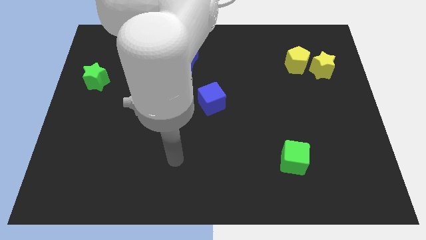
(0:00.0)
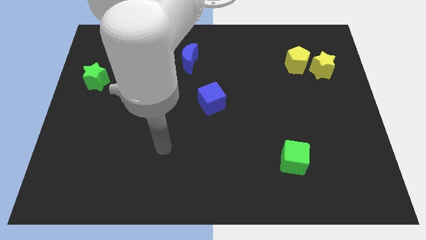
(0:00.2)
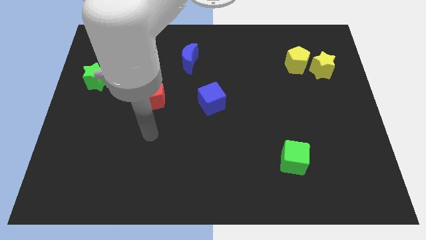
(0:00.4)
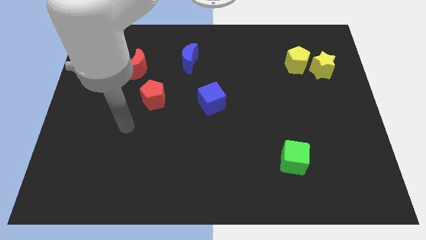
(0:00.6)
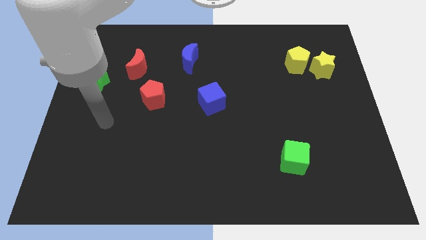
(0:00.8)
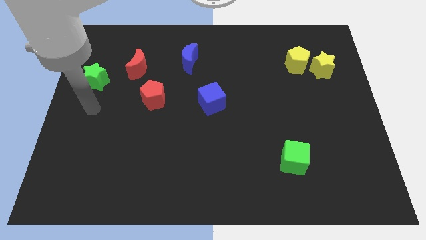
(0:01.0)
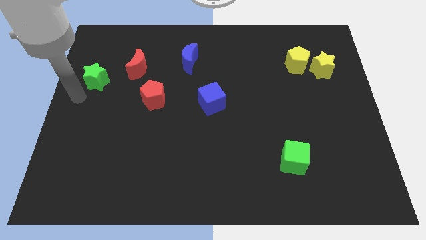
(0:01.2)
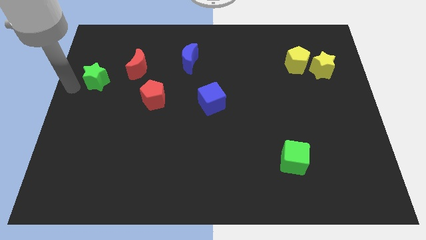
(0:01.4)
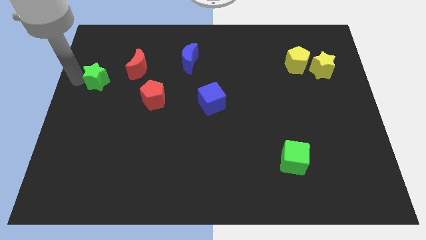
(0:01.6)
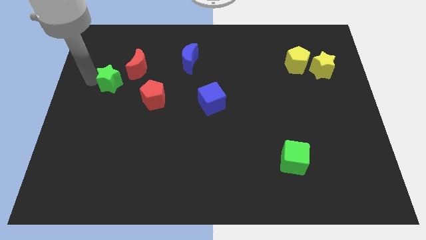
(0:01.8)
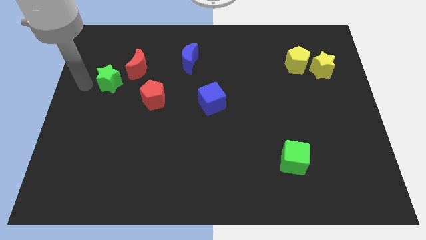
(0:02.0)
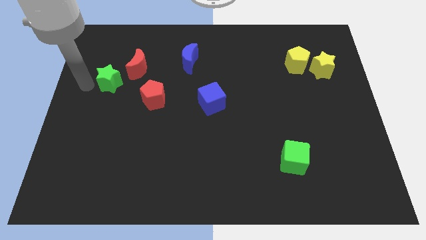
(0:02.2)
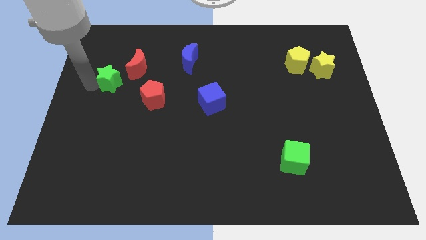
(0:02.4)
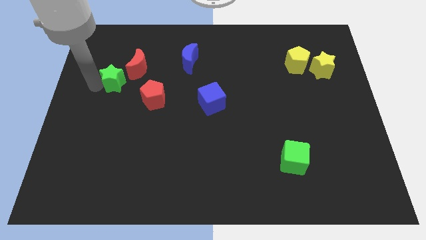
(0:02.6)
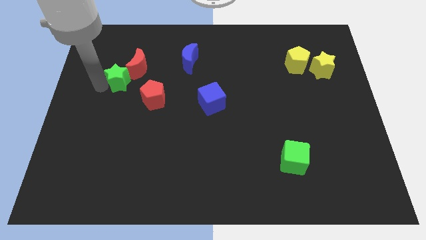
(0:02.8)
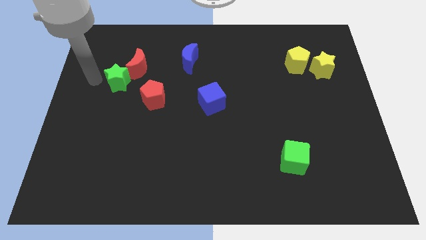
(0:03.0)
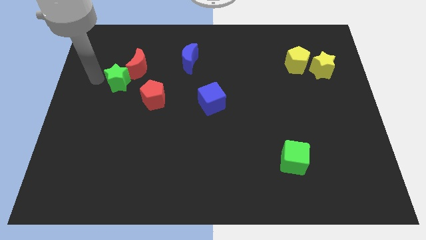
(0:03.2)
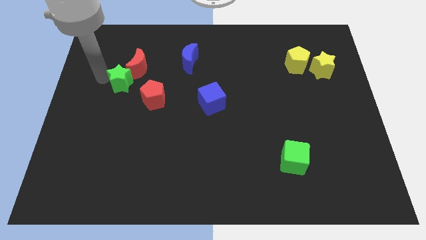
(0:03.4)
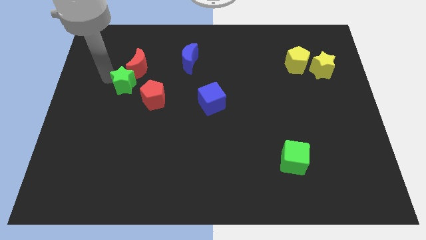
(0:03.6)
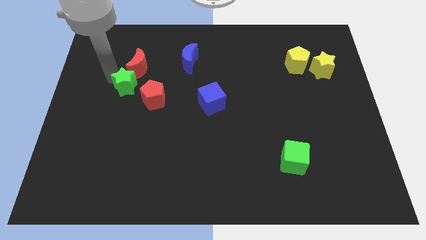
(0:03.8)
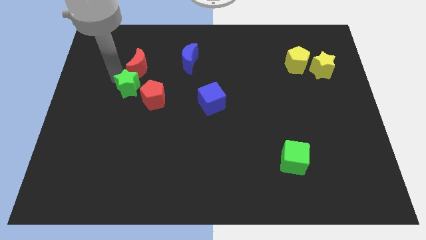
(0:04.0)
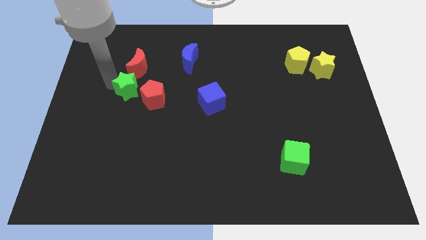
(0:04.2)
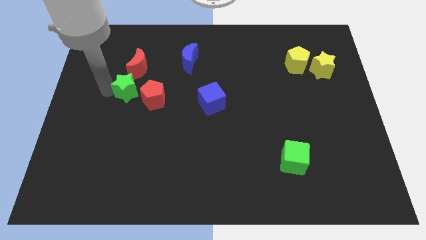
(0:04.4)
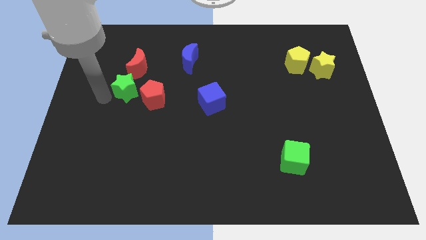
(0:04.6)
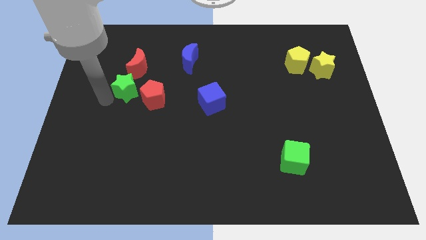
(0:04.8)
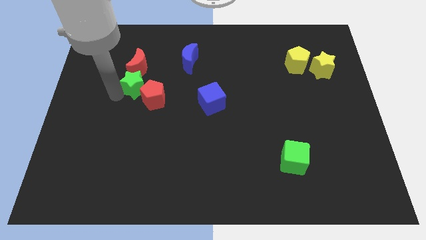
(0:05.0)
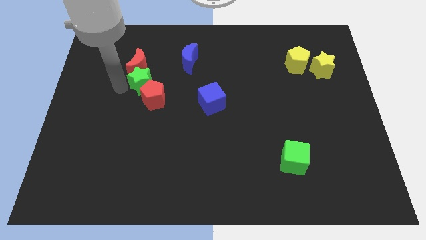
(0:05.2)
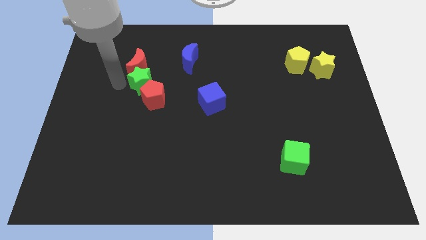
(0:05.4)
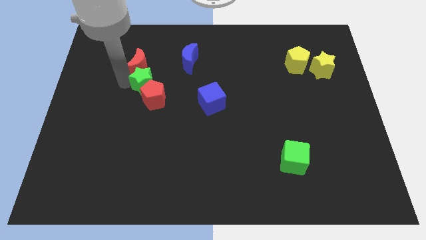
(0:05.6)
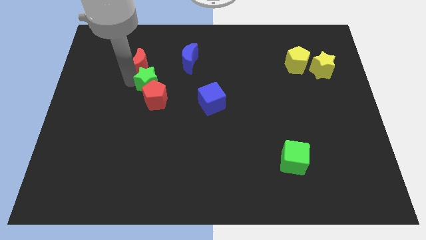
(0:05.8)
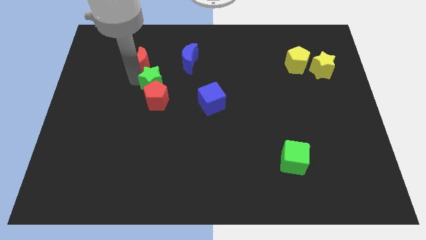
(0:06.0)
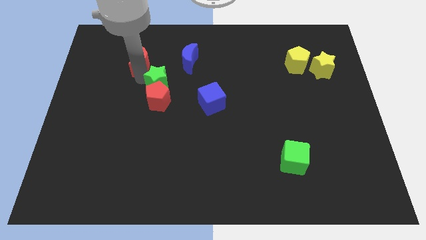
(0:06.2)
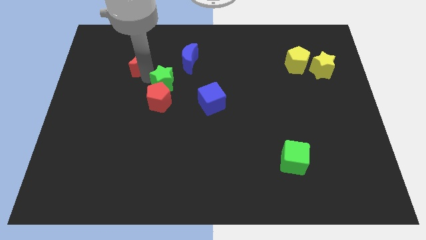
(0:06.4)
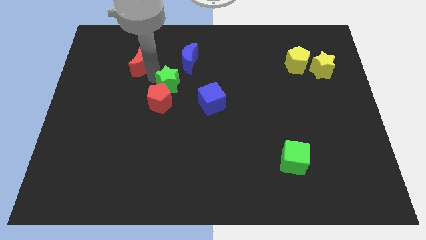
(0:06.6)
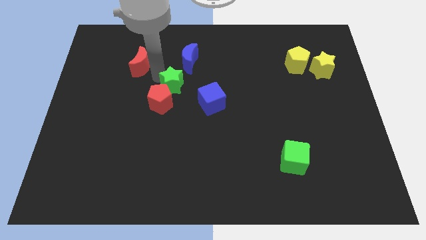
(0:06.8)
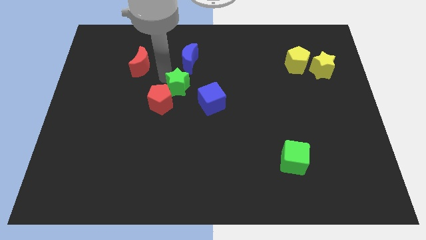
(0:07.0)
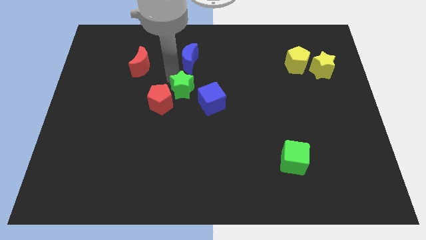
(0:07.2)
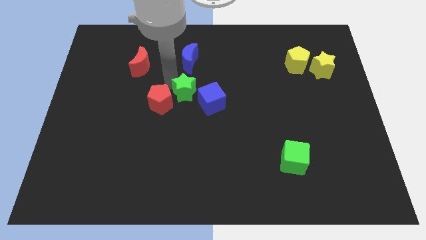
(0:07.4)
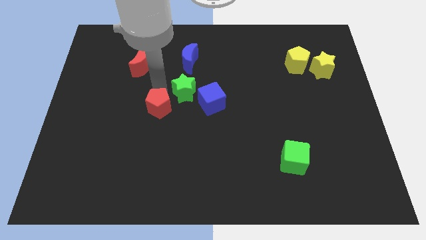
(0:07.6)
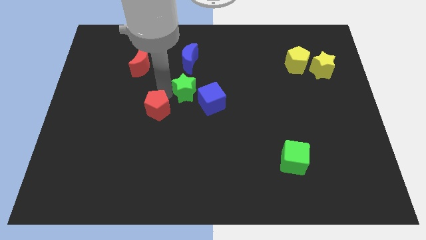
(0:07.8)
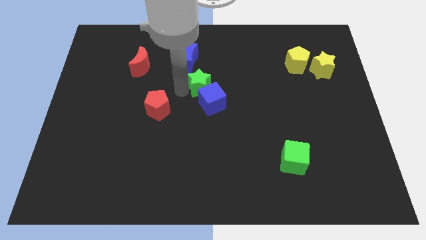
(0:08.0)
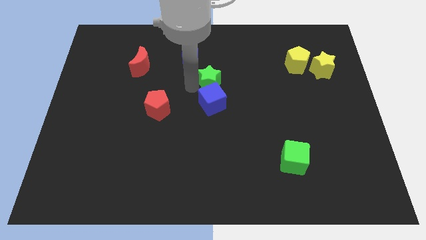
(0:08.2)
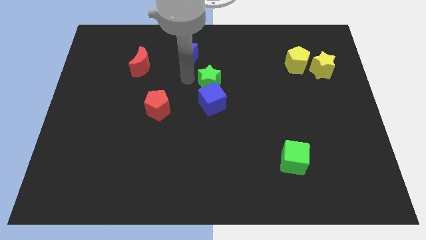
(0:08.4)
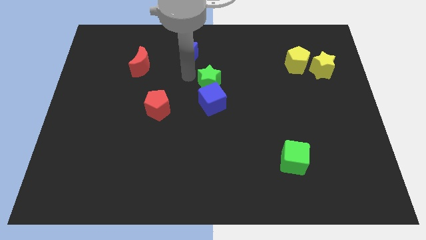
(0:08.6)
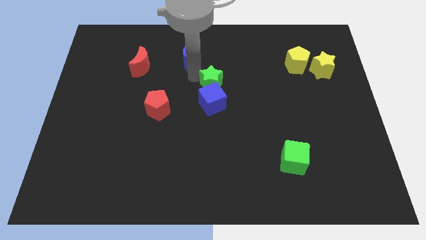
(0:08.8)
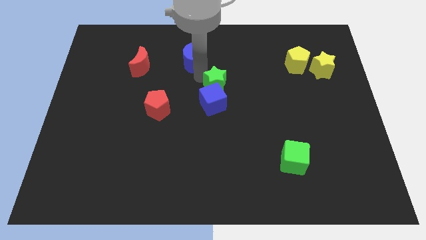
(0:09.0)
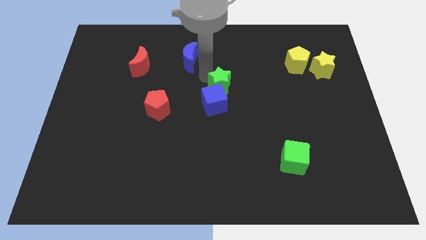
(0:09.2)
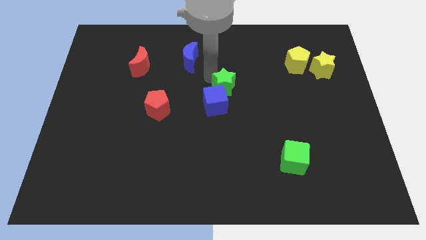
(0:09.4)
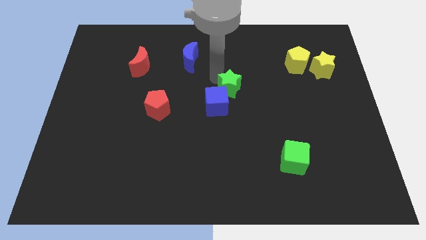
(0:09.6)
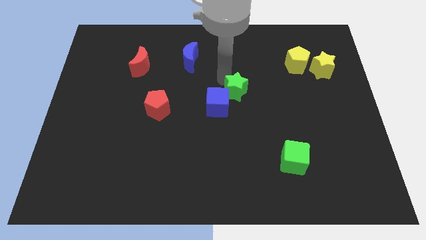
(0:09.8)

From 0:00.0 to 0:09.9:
put the green star right of the blue cube

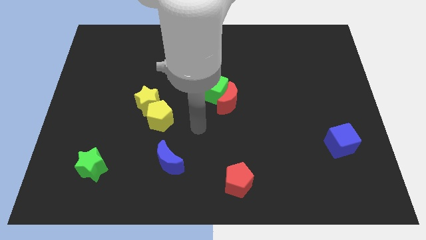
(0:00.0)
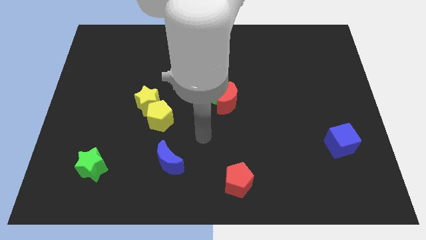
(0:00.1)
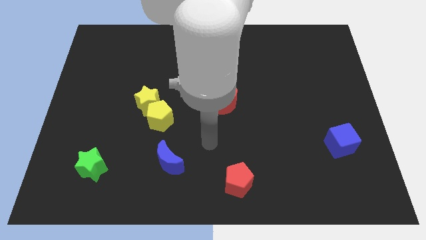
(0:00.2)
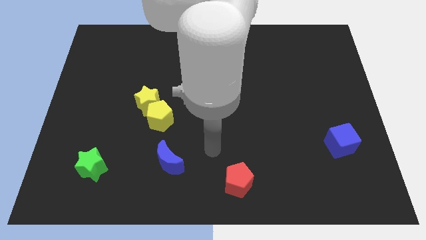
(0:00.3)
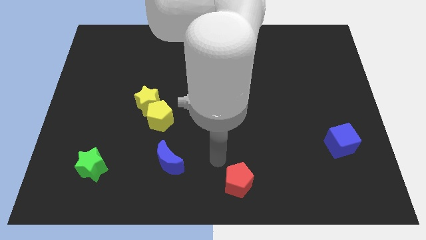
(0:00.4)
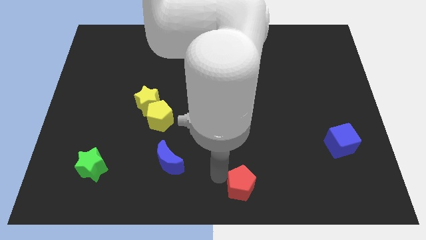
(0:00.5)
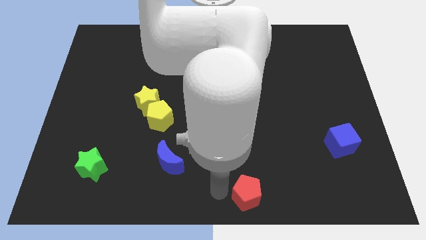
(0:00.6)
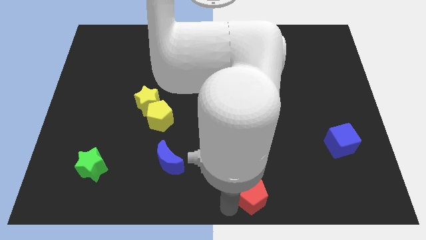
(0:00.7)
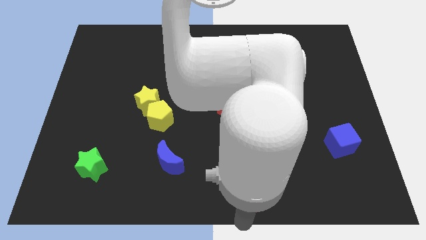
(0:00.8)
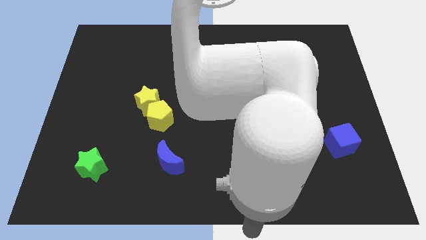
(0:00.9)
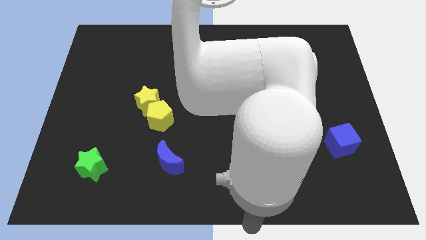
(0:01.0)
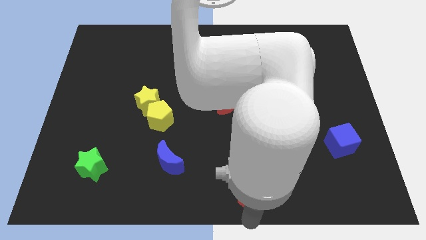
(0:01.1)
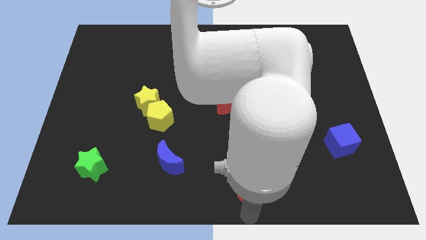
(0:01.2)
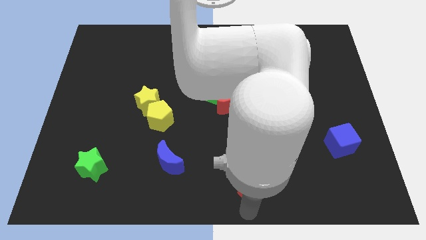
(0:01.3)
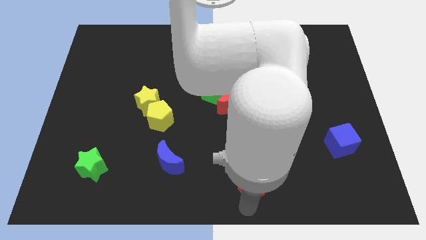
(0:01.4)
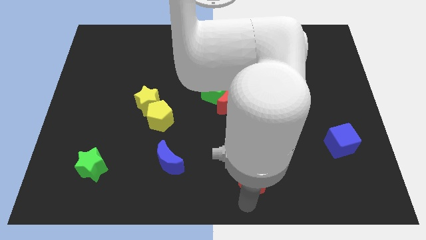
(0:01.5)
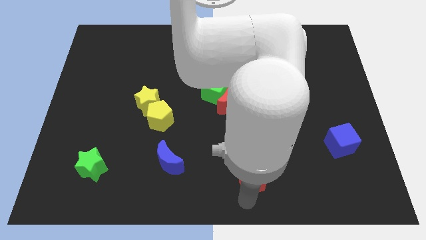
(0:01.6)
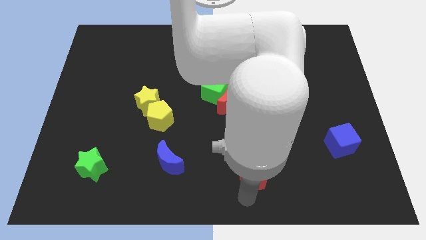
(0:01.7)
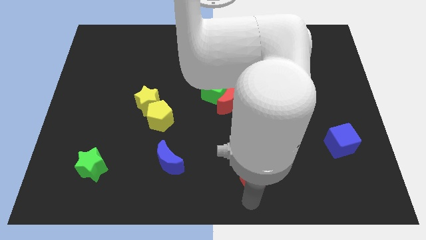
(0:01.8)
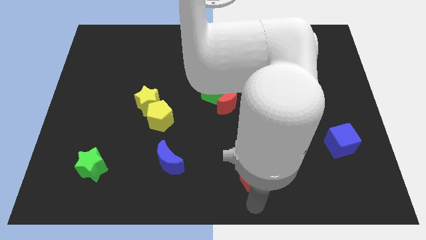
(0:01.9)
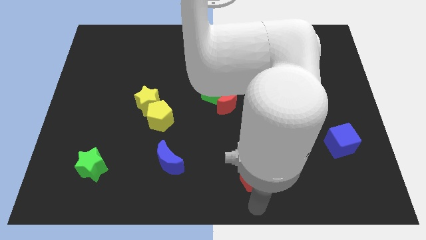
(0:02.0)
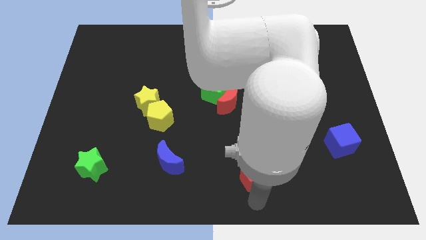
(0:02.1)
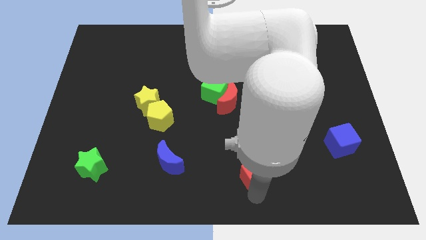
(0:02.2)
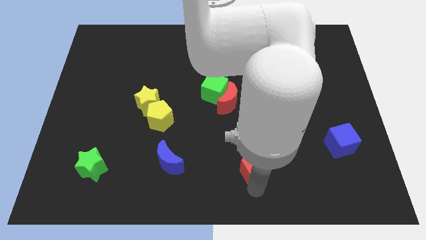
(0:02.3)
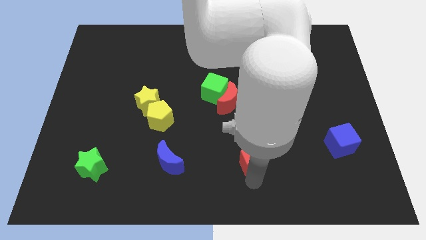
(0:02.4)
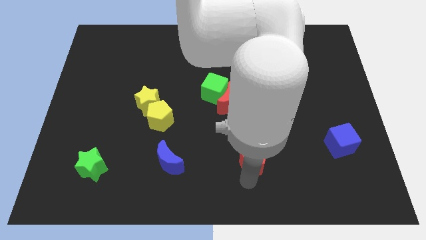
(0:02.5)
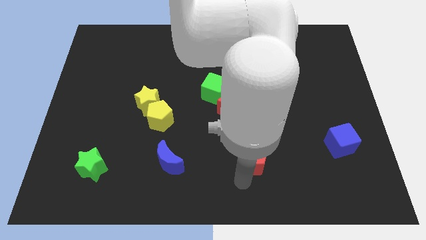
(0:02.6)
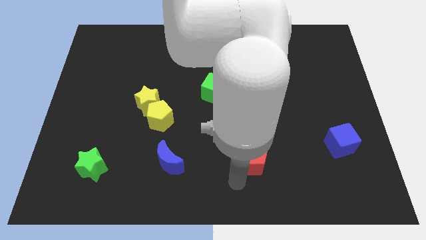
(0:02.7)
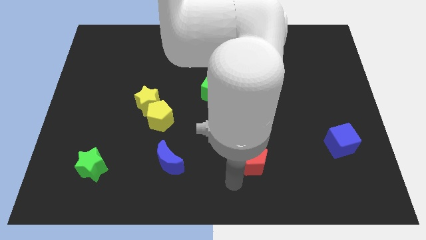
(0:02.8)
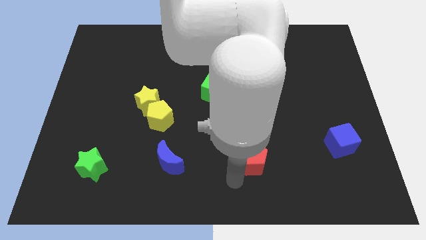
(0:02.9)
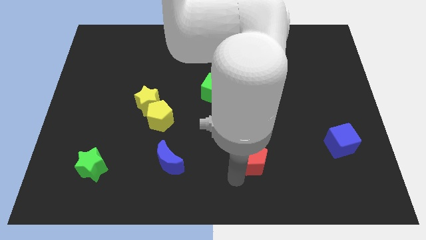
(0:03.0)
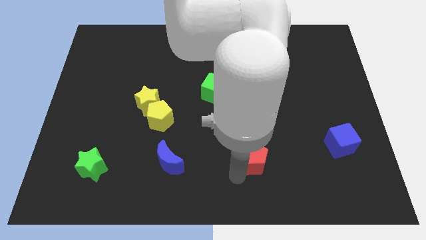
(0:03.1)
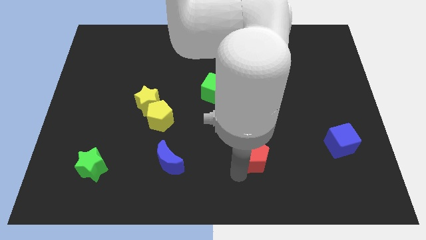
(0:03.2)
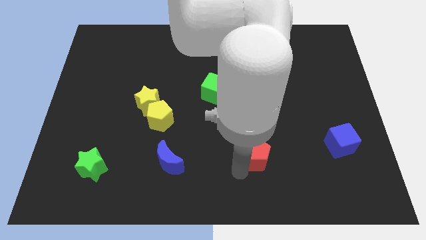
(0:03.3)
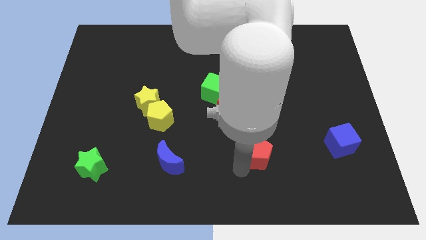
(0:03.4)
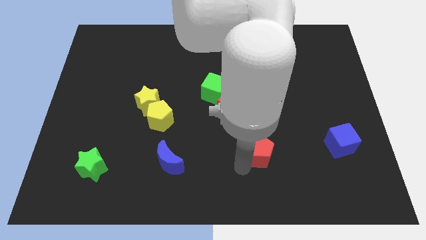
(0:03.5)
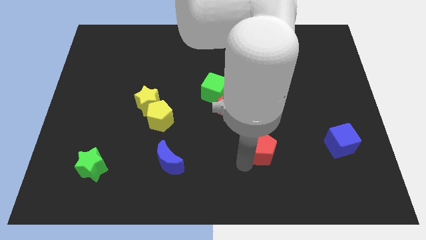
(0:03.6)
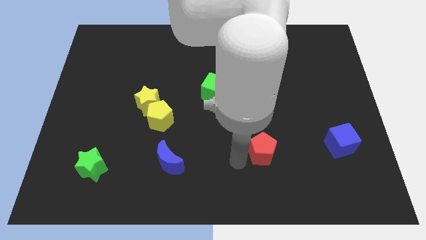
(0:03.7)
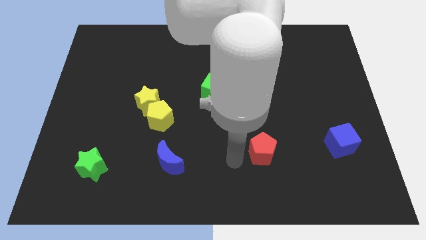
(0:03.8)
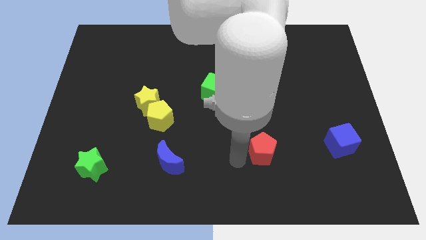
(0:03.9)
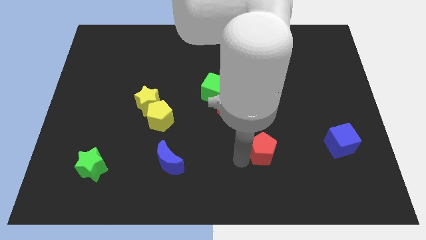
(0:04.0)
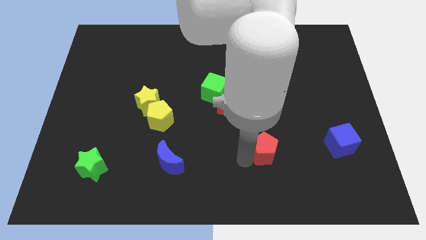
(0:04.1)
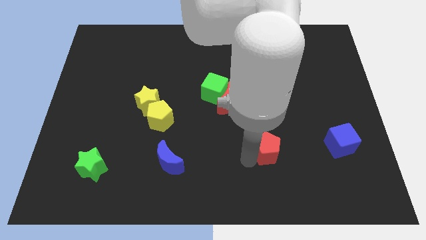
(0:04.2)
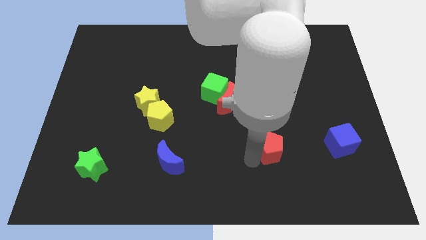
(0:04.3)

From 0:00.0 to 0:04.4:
move the red pentagon left of the blue cube
